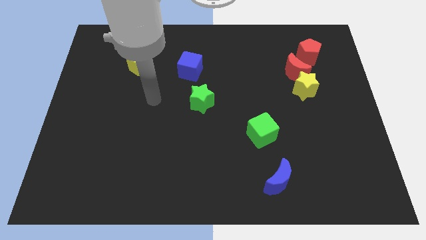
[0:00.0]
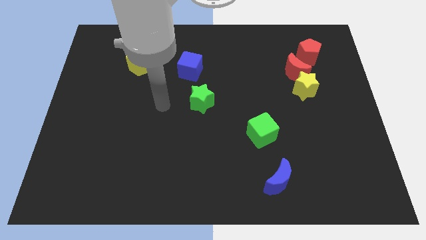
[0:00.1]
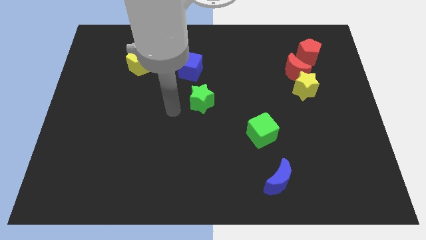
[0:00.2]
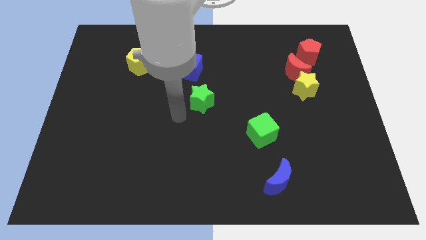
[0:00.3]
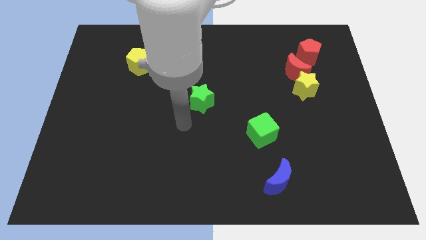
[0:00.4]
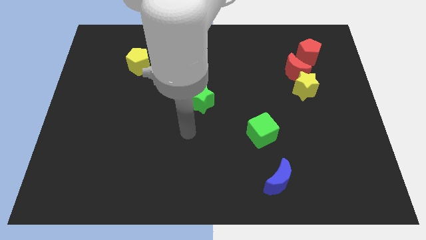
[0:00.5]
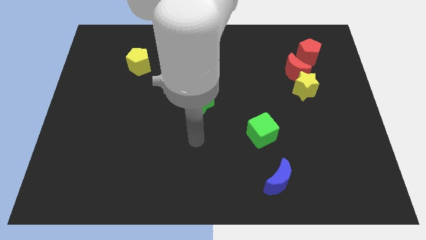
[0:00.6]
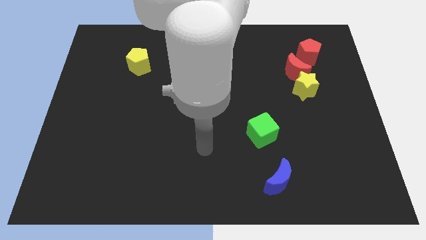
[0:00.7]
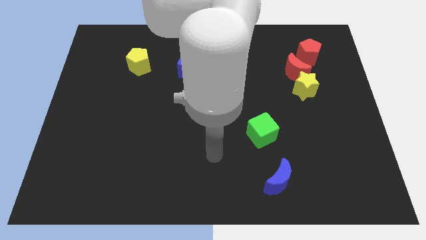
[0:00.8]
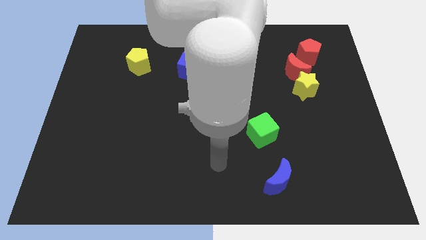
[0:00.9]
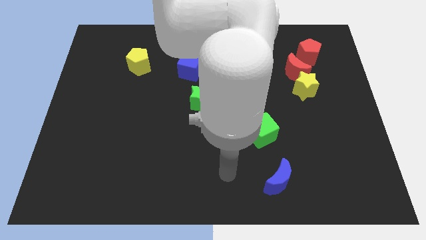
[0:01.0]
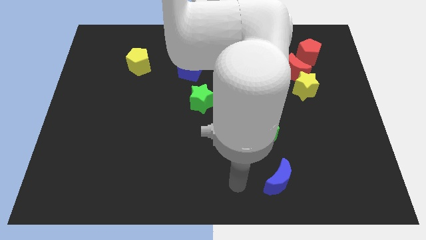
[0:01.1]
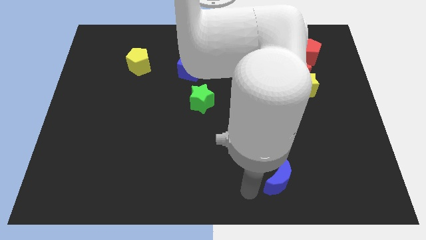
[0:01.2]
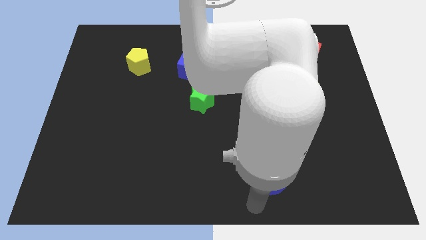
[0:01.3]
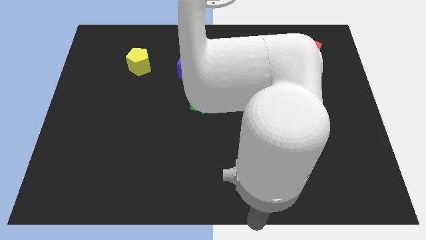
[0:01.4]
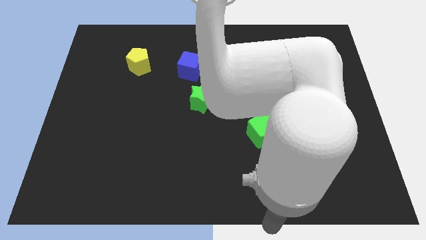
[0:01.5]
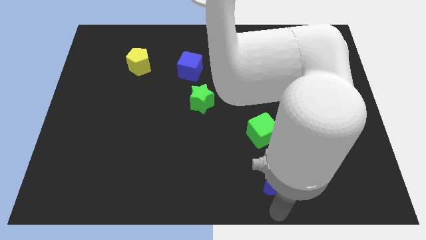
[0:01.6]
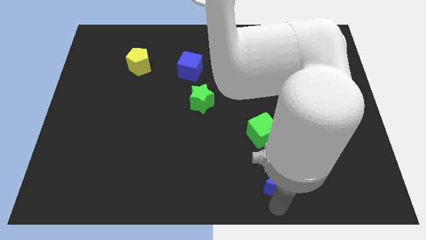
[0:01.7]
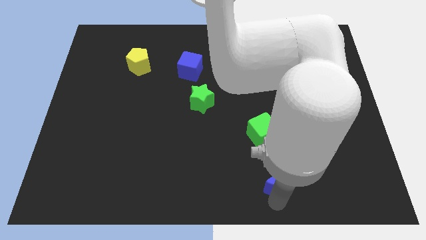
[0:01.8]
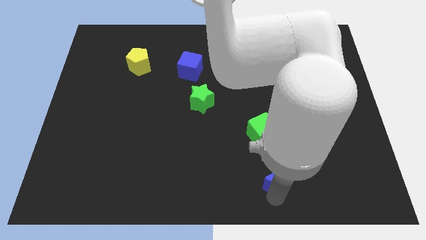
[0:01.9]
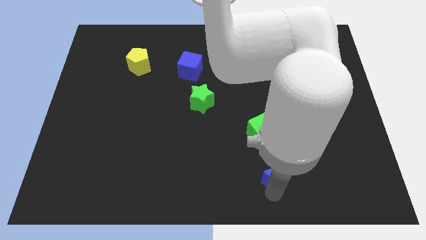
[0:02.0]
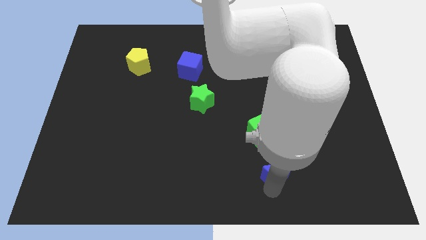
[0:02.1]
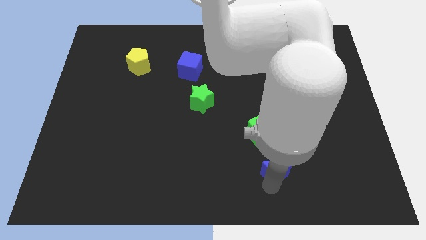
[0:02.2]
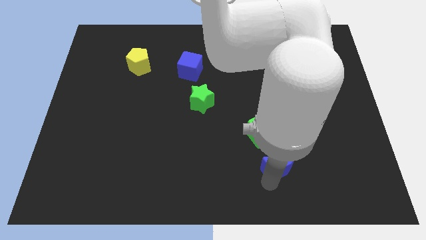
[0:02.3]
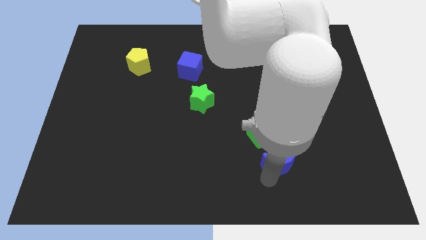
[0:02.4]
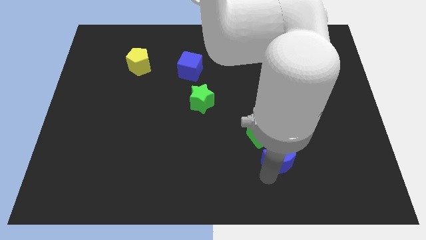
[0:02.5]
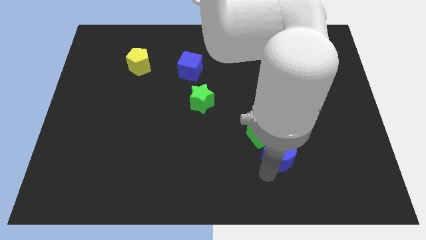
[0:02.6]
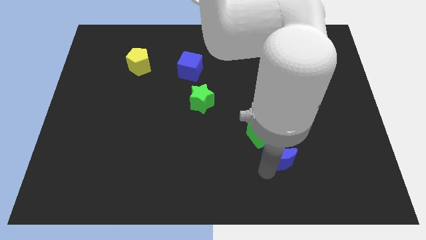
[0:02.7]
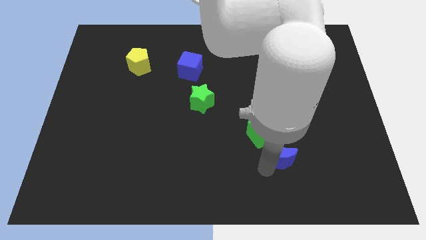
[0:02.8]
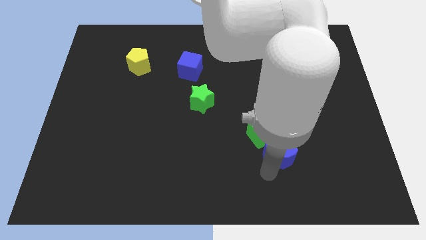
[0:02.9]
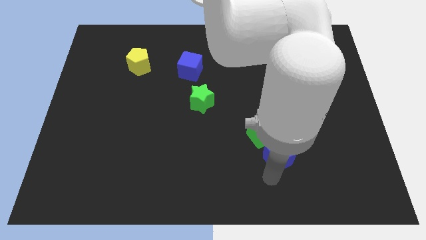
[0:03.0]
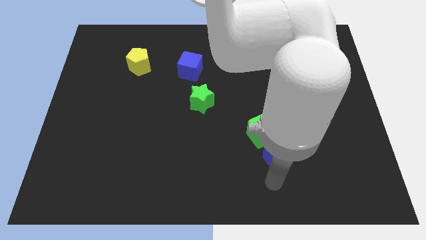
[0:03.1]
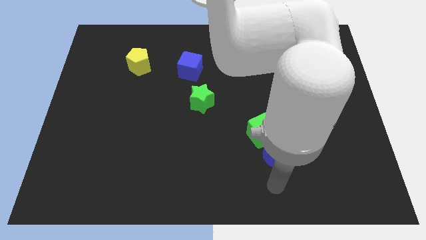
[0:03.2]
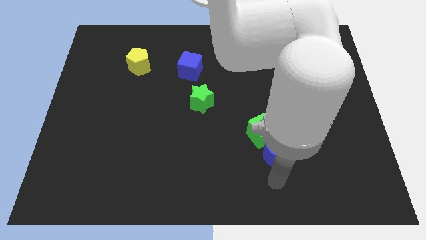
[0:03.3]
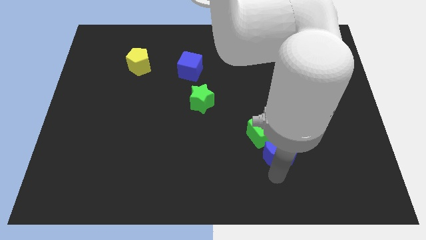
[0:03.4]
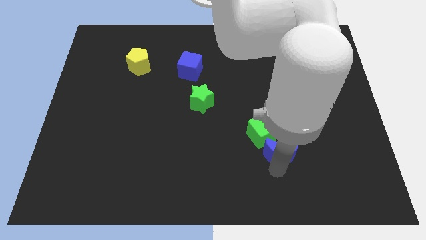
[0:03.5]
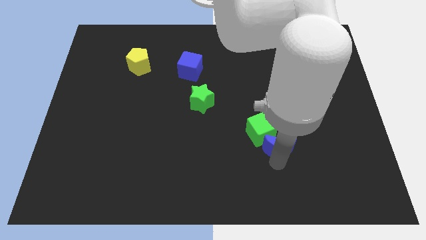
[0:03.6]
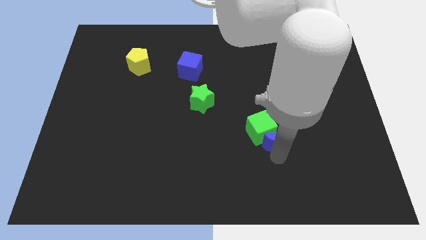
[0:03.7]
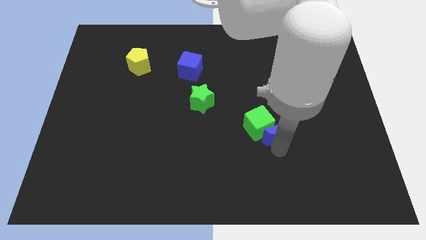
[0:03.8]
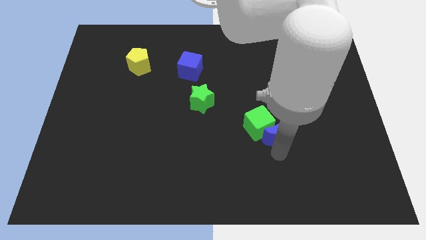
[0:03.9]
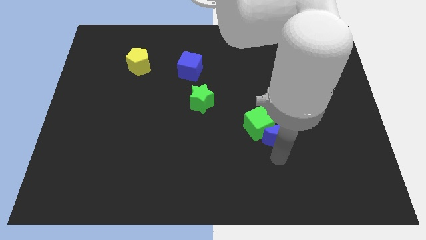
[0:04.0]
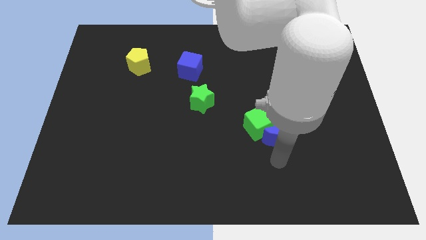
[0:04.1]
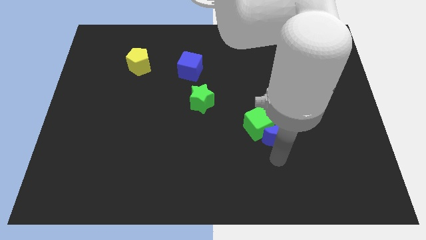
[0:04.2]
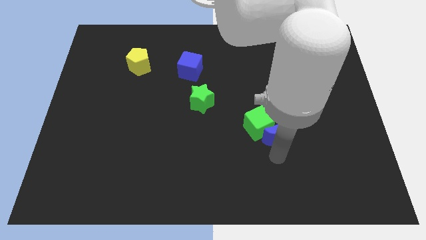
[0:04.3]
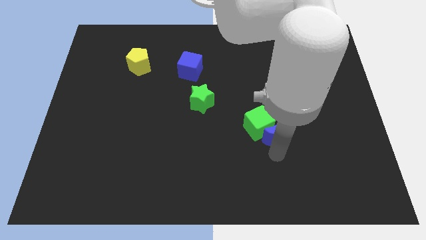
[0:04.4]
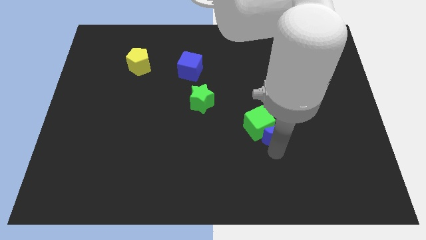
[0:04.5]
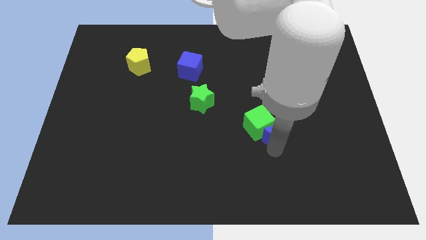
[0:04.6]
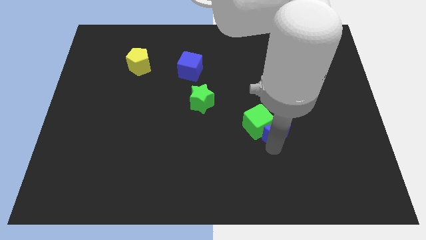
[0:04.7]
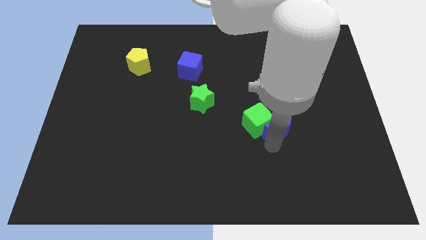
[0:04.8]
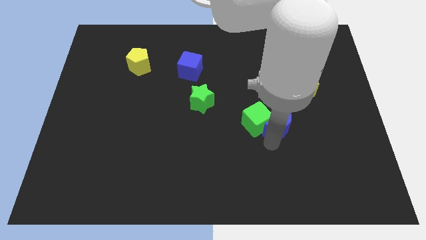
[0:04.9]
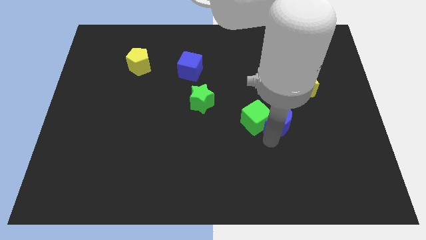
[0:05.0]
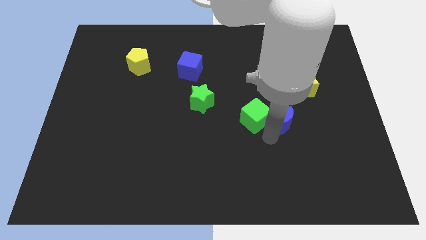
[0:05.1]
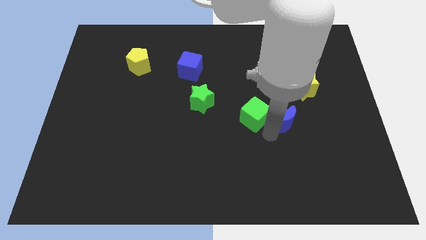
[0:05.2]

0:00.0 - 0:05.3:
push the blue moon diagonally down and to the left of the yellow star

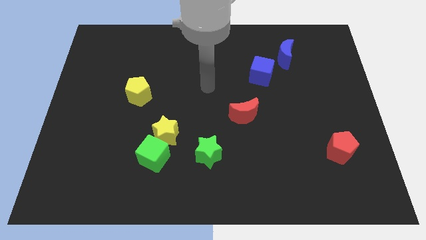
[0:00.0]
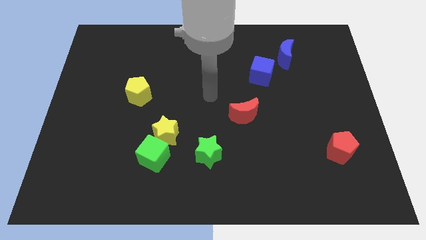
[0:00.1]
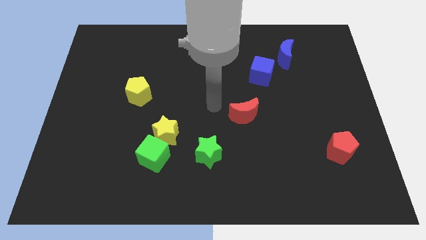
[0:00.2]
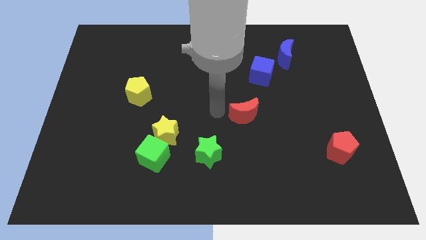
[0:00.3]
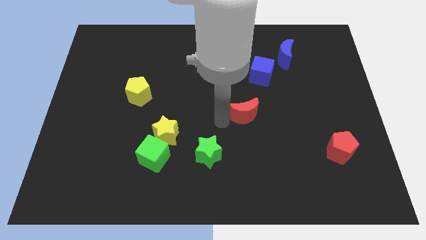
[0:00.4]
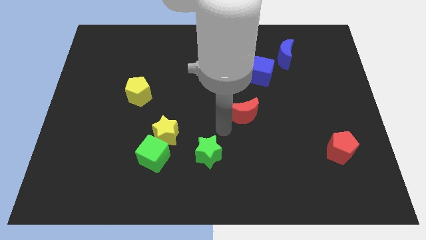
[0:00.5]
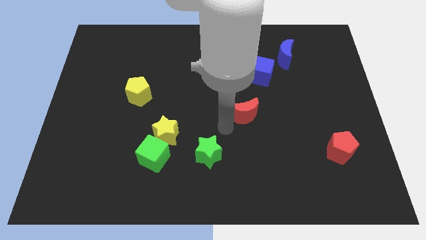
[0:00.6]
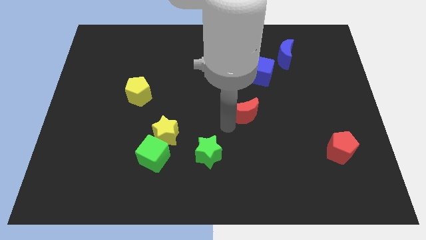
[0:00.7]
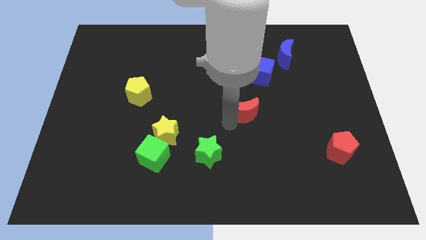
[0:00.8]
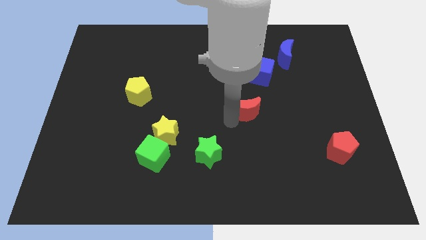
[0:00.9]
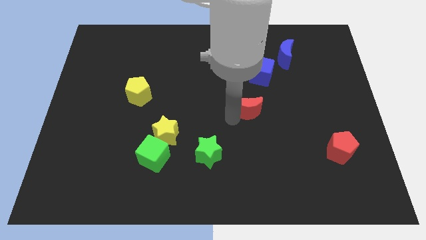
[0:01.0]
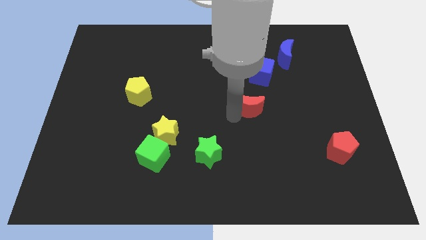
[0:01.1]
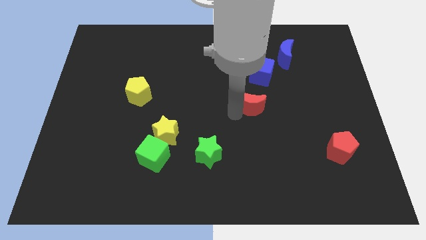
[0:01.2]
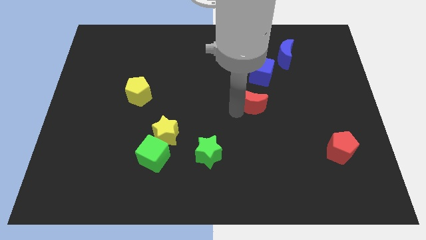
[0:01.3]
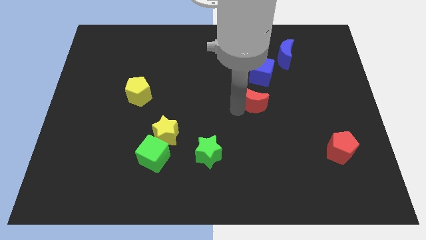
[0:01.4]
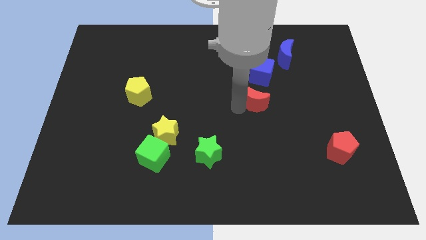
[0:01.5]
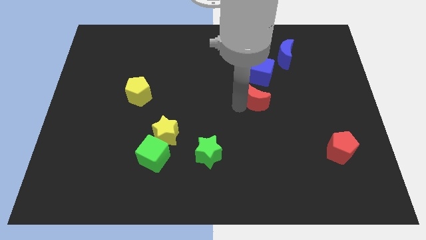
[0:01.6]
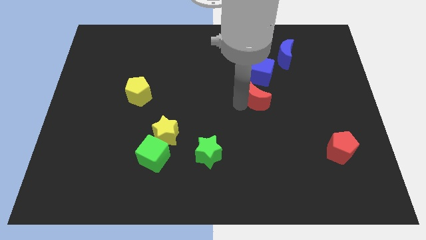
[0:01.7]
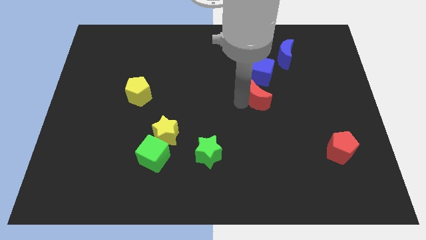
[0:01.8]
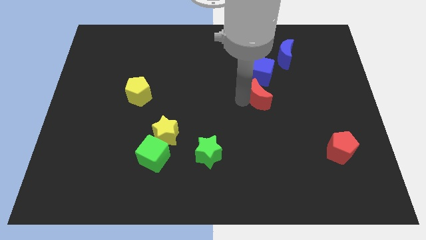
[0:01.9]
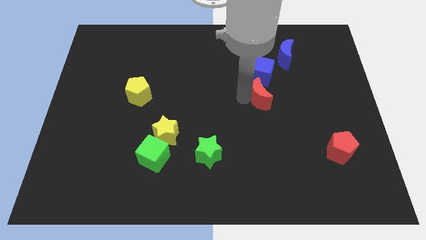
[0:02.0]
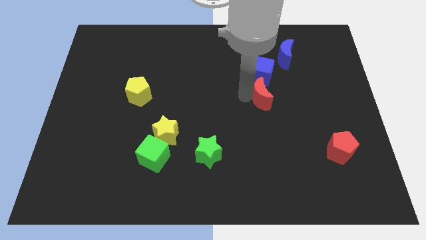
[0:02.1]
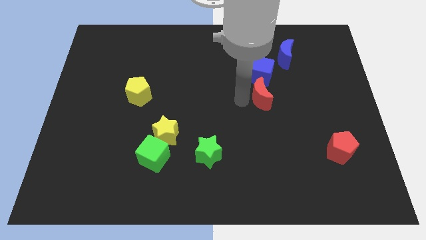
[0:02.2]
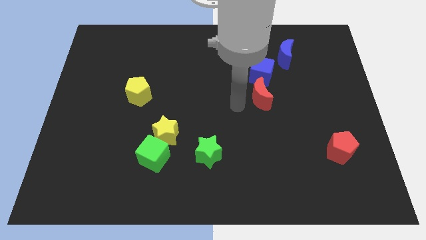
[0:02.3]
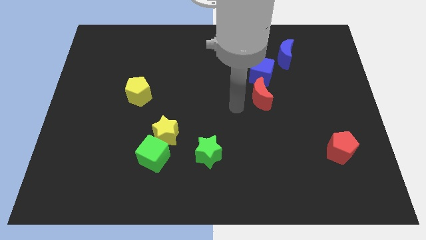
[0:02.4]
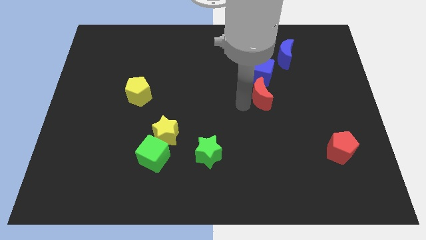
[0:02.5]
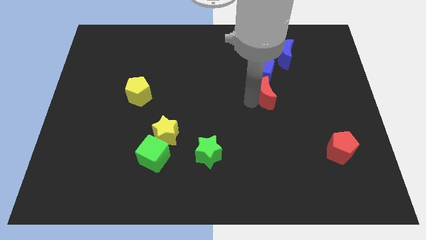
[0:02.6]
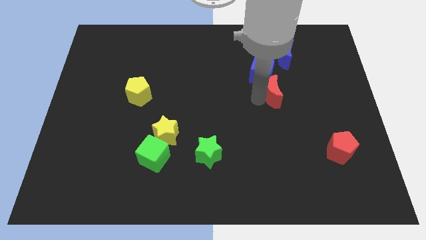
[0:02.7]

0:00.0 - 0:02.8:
move the red moon below the blue moon
